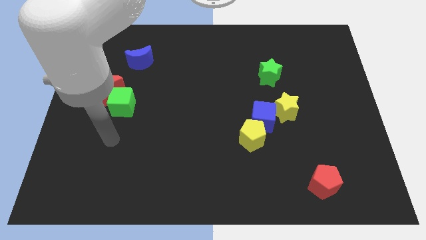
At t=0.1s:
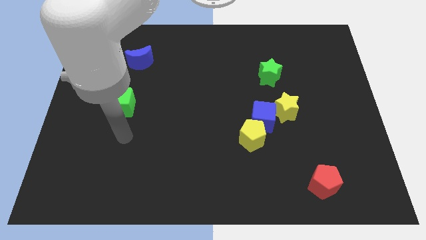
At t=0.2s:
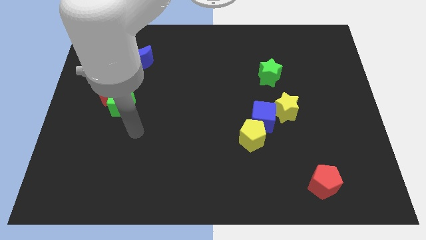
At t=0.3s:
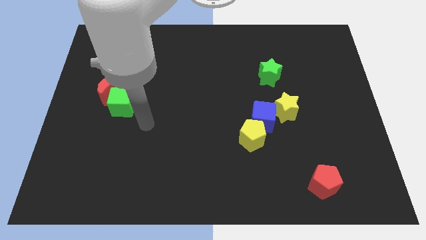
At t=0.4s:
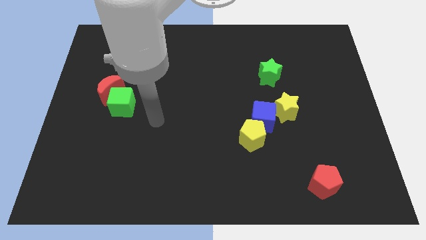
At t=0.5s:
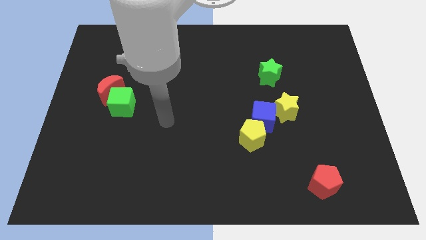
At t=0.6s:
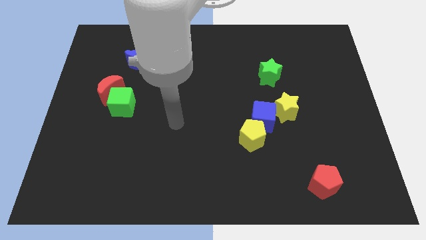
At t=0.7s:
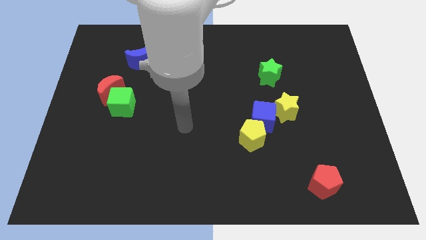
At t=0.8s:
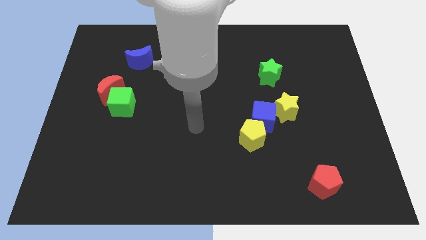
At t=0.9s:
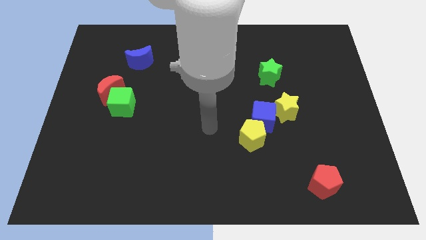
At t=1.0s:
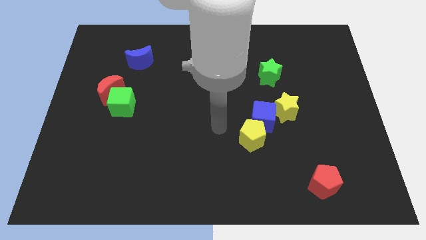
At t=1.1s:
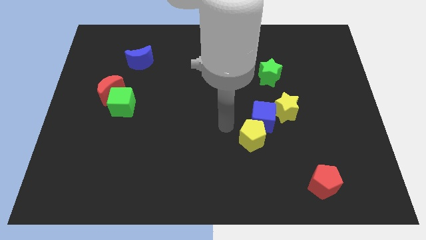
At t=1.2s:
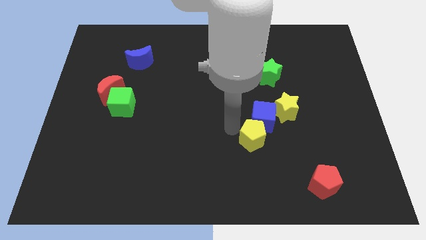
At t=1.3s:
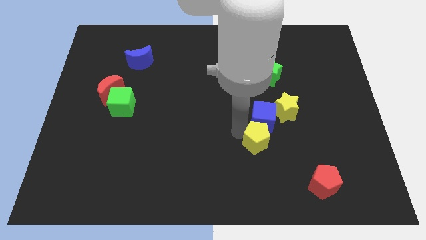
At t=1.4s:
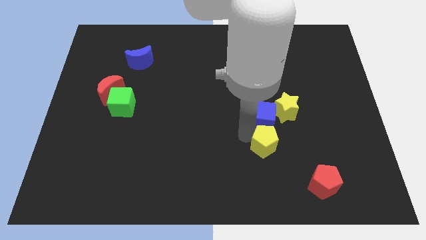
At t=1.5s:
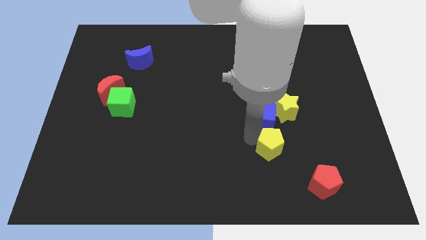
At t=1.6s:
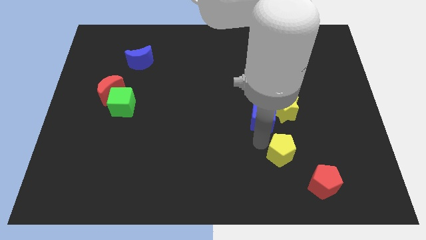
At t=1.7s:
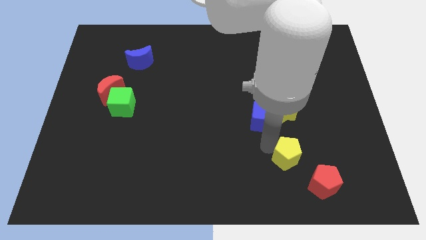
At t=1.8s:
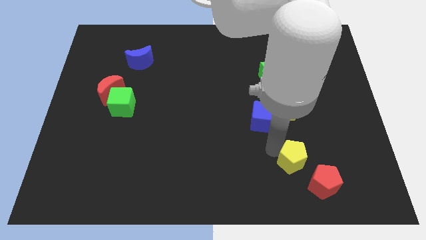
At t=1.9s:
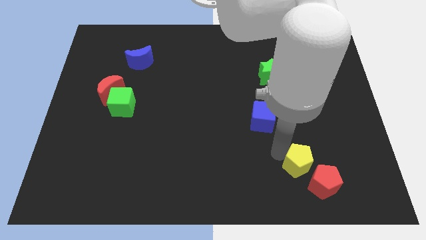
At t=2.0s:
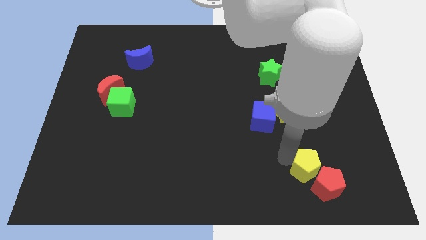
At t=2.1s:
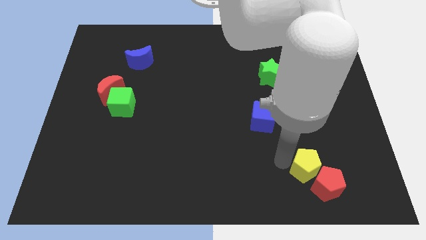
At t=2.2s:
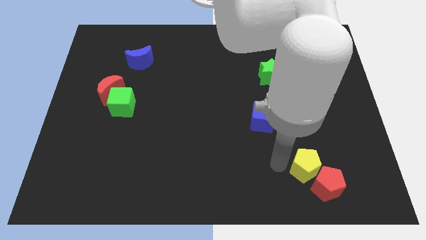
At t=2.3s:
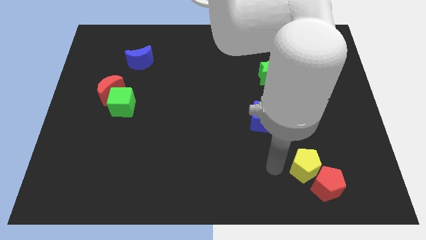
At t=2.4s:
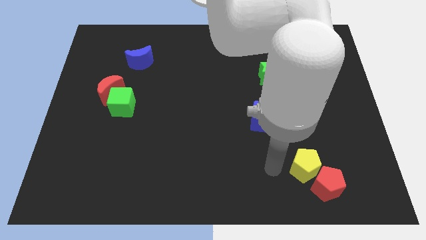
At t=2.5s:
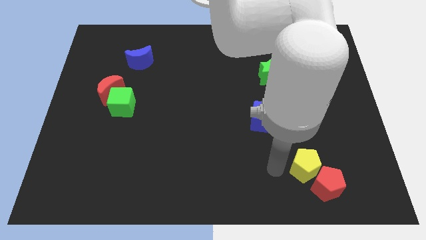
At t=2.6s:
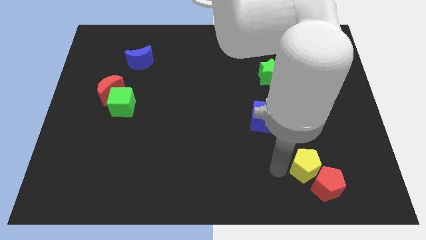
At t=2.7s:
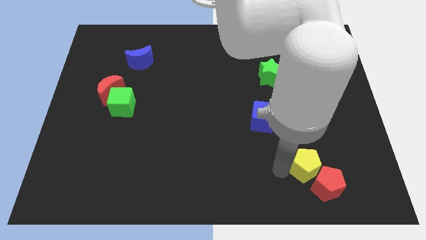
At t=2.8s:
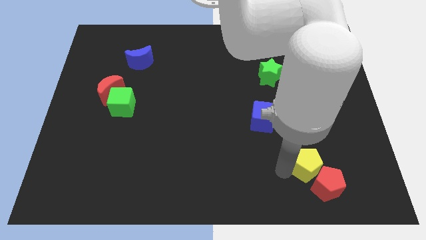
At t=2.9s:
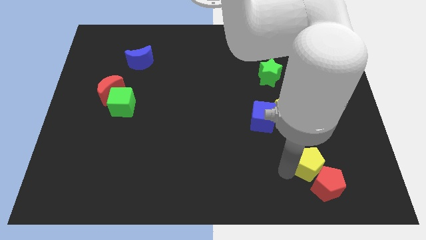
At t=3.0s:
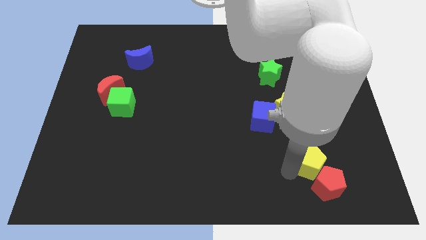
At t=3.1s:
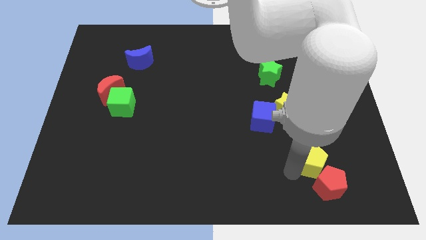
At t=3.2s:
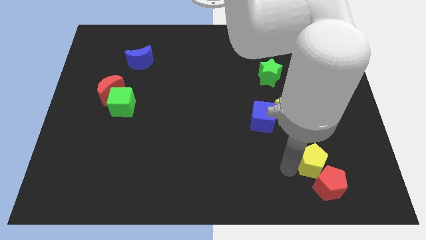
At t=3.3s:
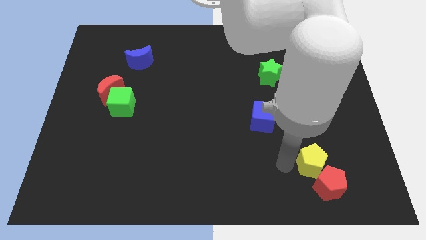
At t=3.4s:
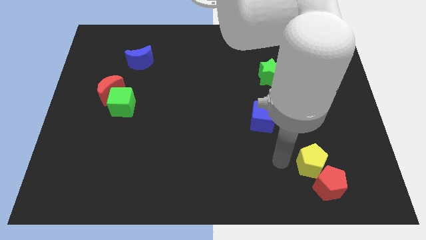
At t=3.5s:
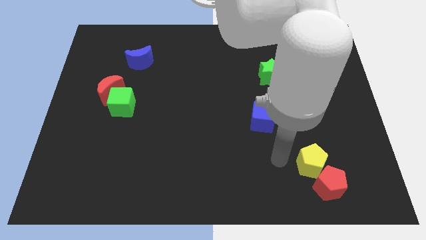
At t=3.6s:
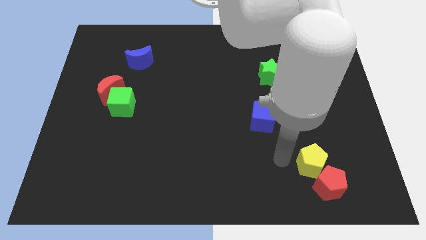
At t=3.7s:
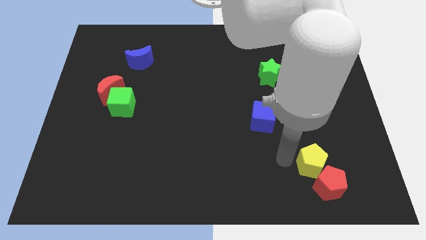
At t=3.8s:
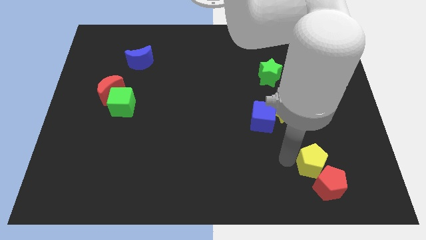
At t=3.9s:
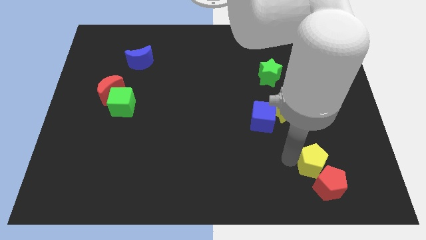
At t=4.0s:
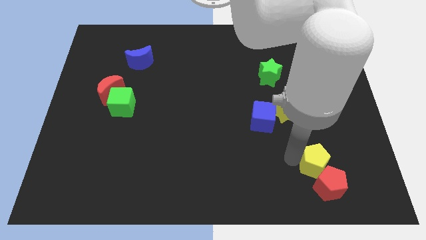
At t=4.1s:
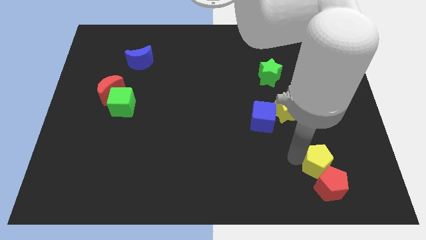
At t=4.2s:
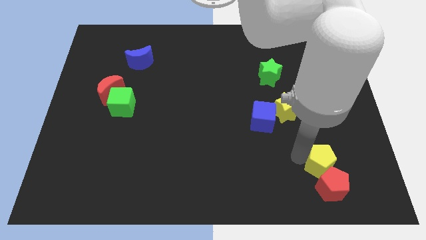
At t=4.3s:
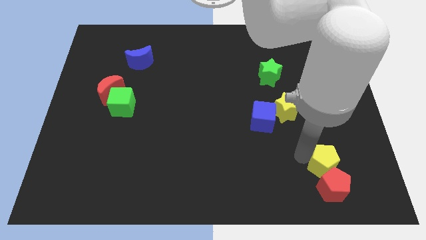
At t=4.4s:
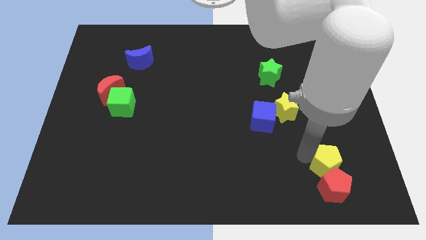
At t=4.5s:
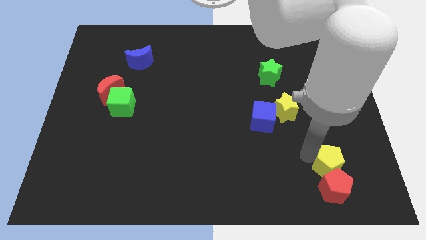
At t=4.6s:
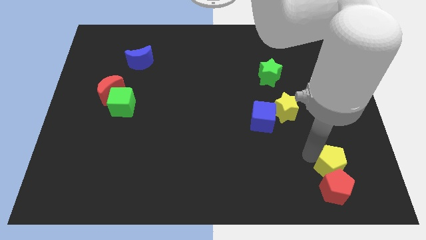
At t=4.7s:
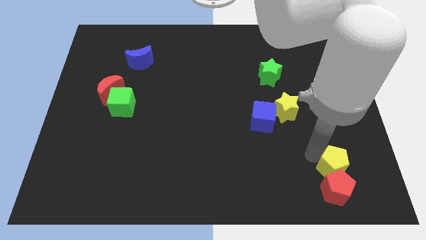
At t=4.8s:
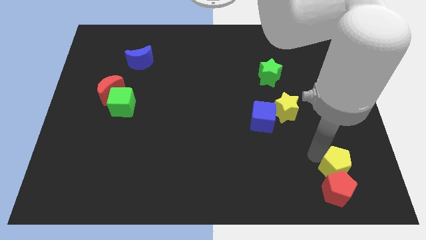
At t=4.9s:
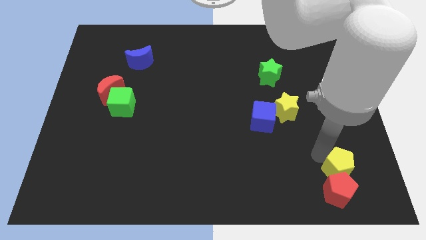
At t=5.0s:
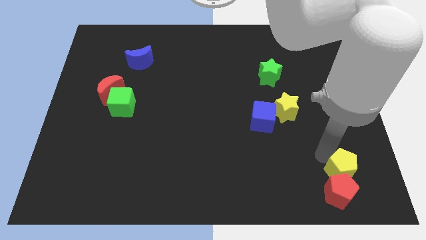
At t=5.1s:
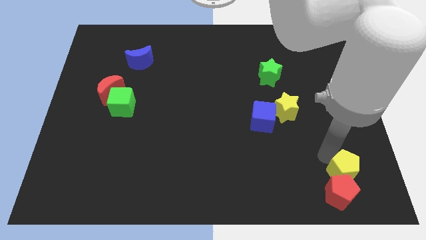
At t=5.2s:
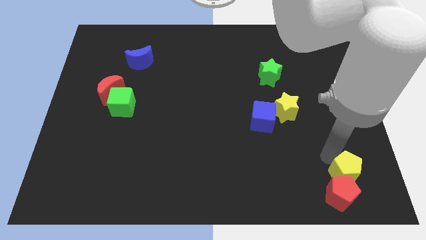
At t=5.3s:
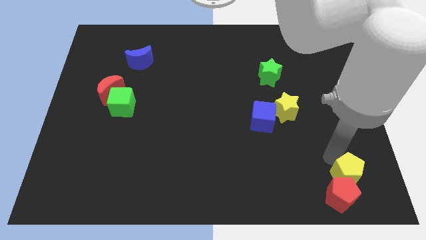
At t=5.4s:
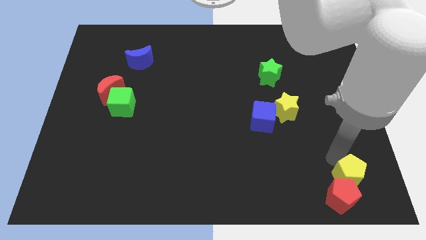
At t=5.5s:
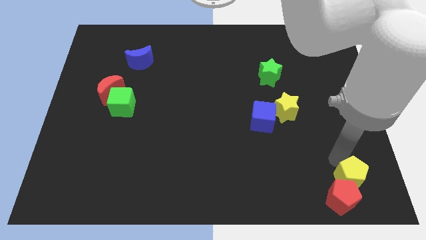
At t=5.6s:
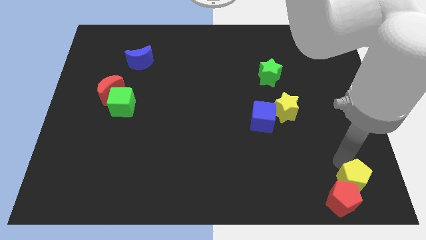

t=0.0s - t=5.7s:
move the yellow pentagon to the lower right corner
